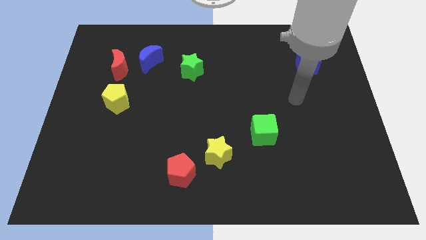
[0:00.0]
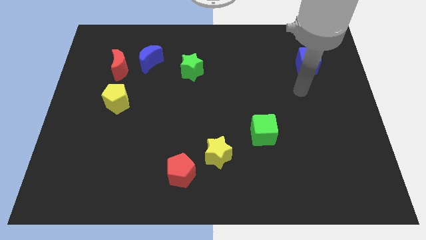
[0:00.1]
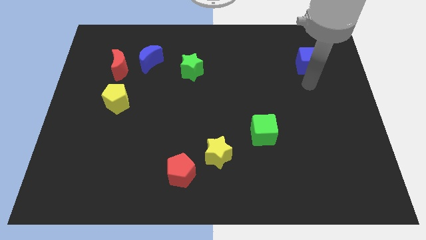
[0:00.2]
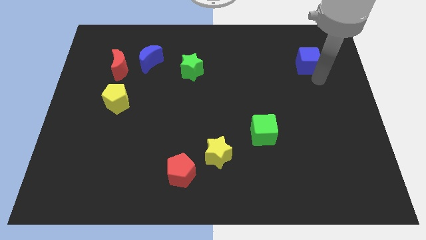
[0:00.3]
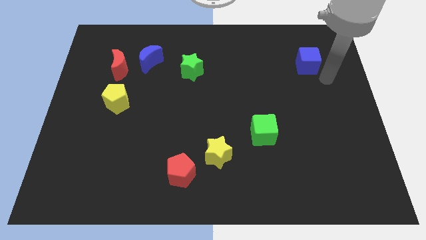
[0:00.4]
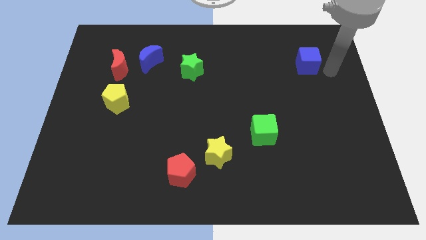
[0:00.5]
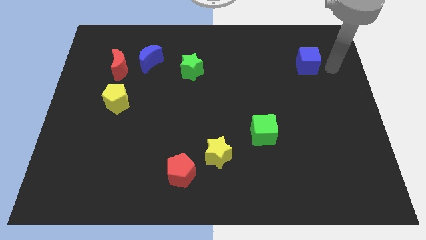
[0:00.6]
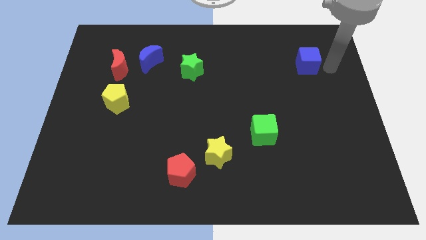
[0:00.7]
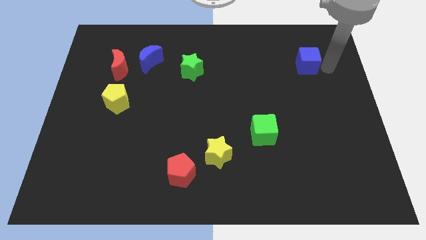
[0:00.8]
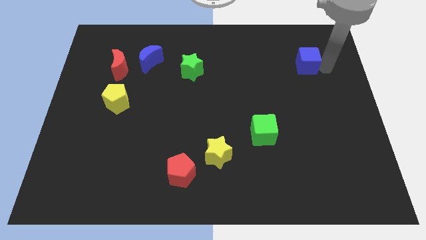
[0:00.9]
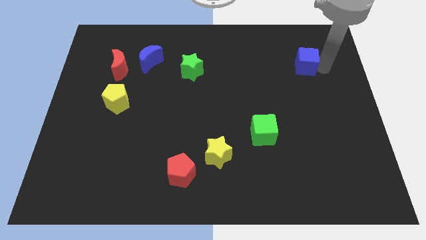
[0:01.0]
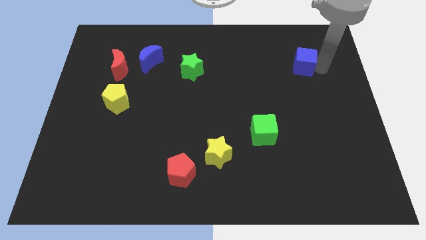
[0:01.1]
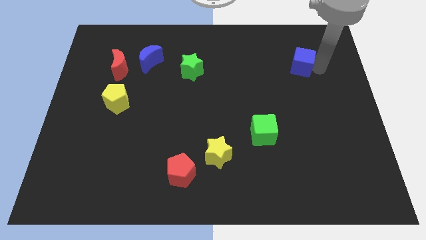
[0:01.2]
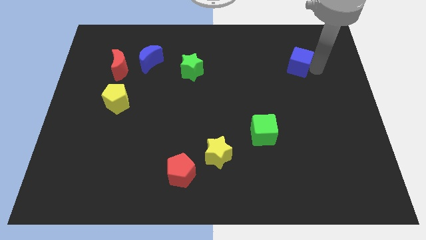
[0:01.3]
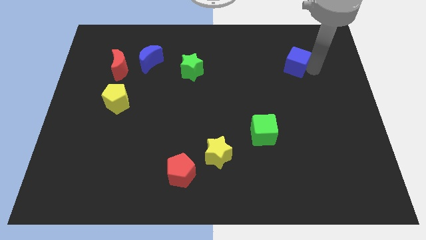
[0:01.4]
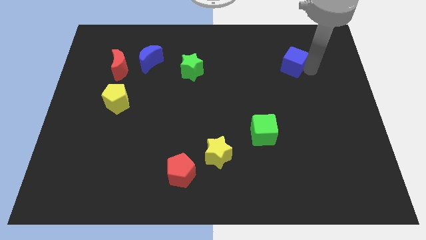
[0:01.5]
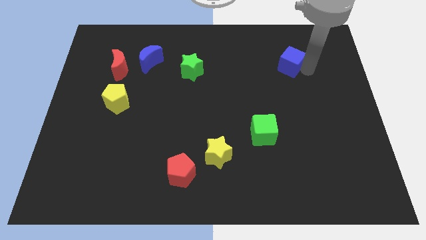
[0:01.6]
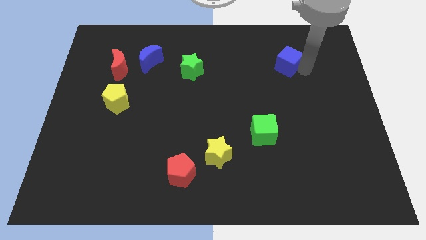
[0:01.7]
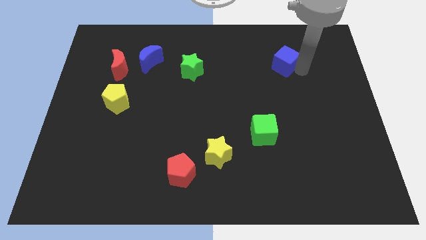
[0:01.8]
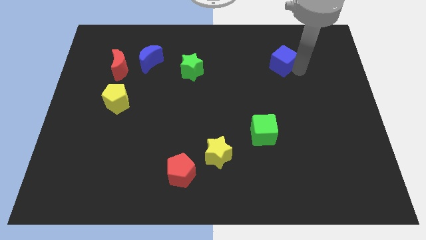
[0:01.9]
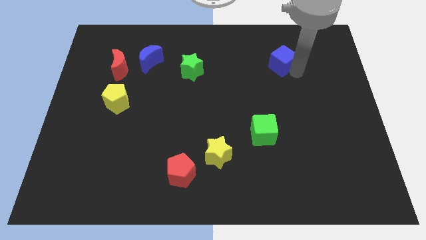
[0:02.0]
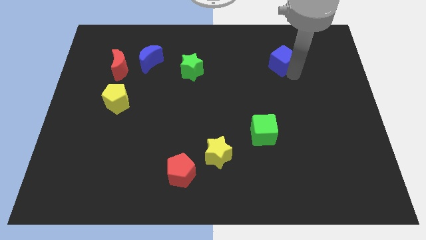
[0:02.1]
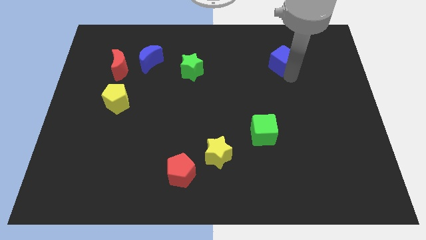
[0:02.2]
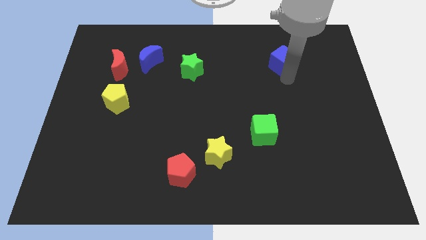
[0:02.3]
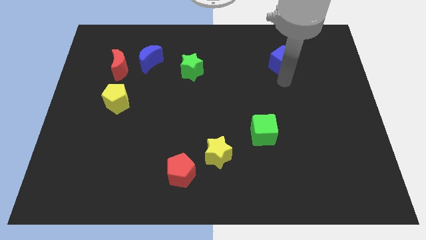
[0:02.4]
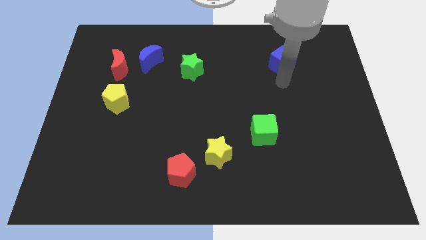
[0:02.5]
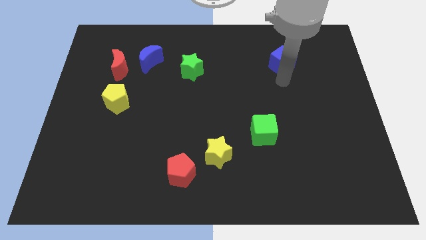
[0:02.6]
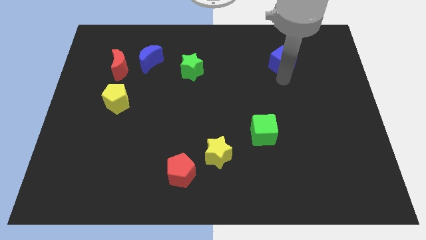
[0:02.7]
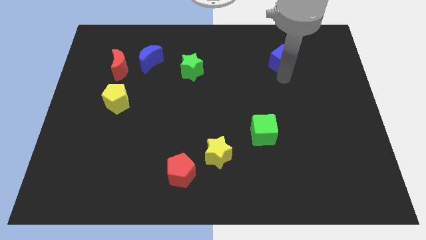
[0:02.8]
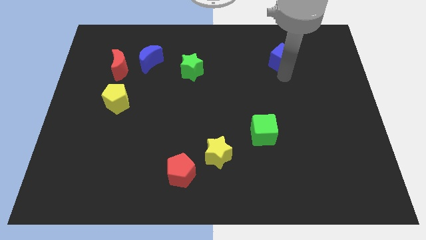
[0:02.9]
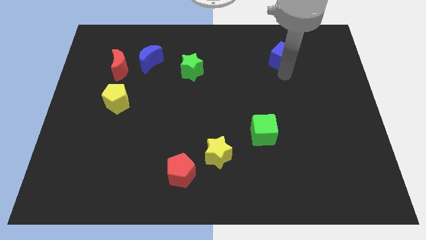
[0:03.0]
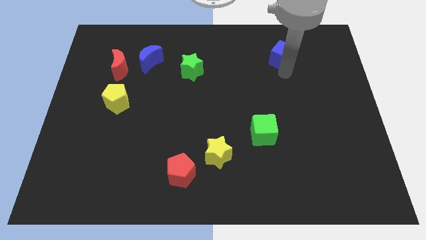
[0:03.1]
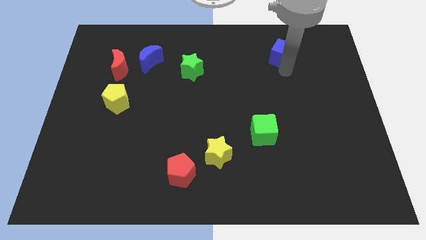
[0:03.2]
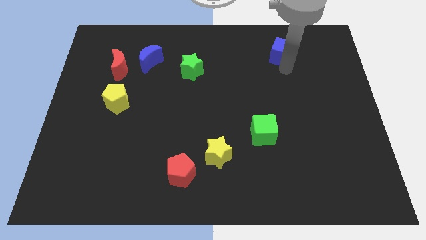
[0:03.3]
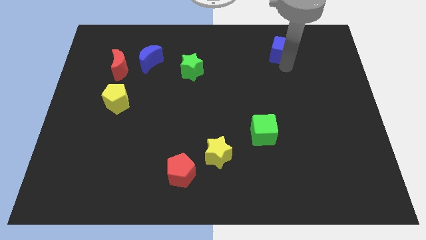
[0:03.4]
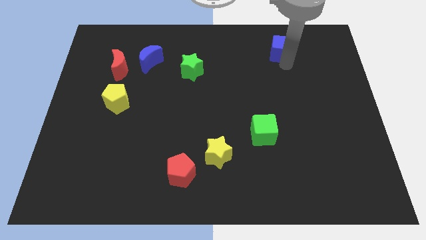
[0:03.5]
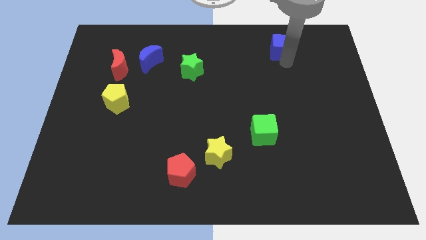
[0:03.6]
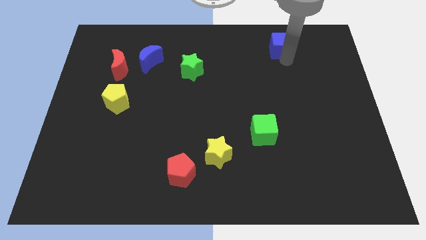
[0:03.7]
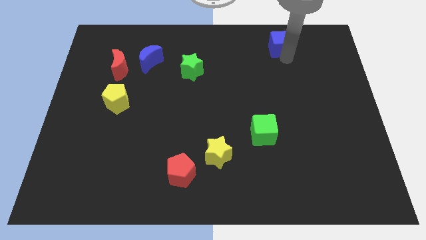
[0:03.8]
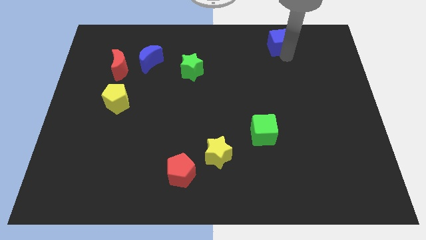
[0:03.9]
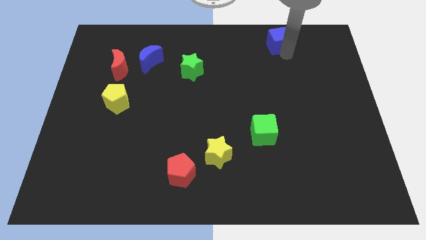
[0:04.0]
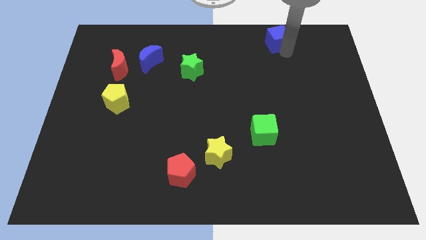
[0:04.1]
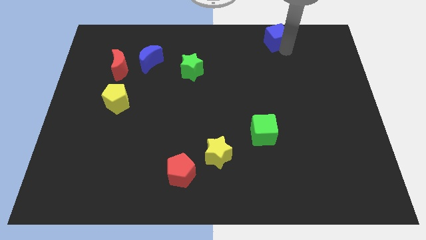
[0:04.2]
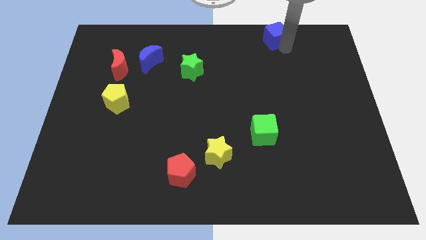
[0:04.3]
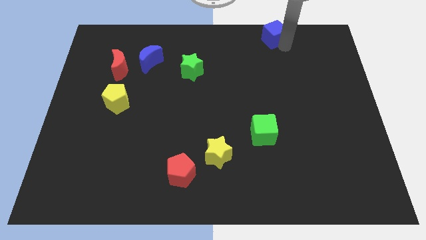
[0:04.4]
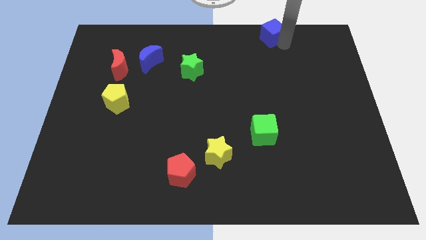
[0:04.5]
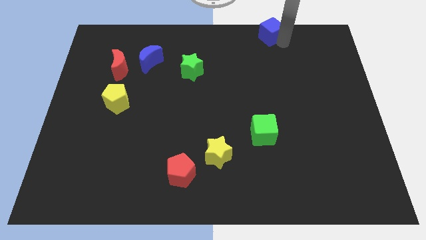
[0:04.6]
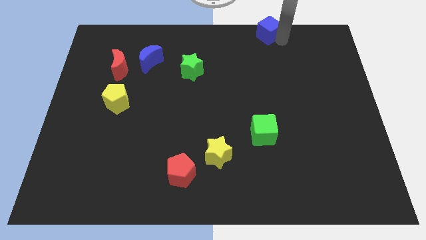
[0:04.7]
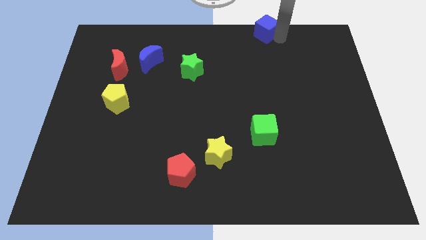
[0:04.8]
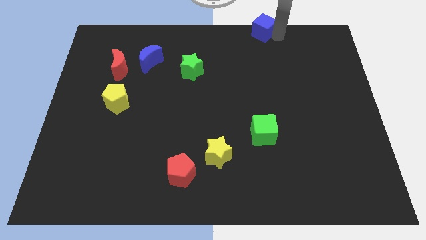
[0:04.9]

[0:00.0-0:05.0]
put the blue cube to the towards your base

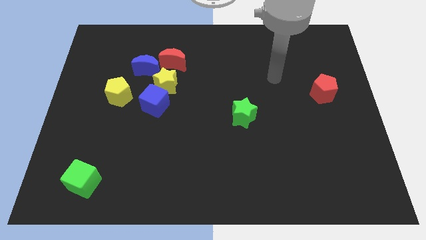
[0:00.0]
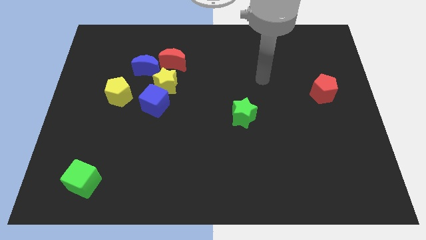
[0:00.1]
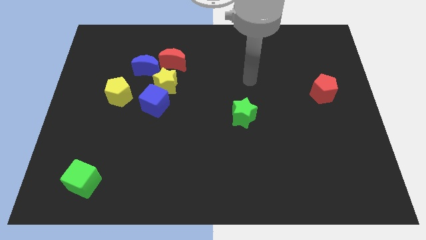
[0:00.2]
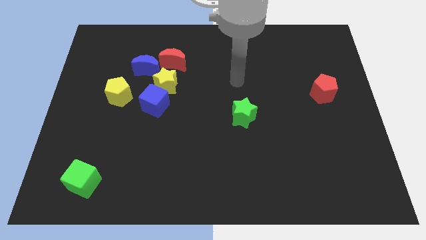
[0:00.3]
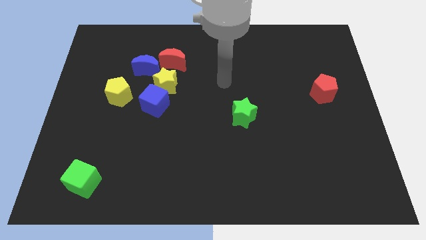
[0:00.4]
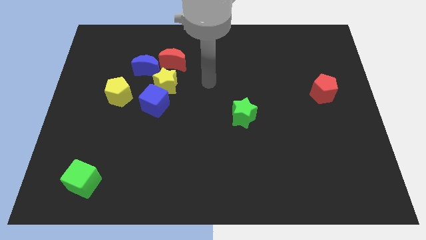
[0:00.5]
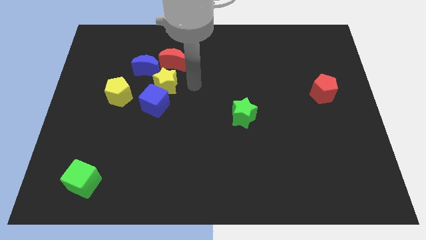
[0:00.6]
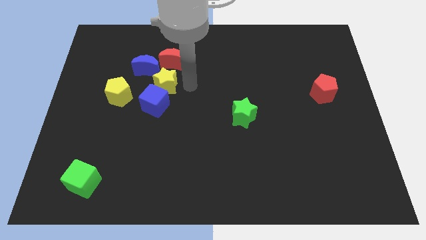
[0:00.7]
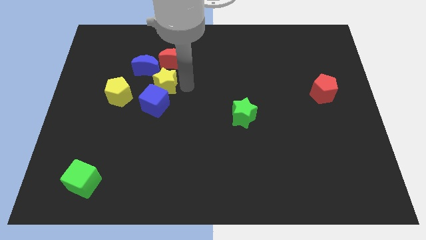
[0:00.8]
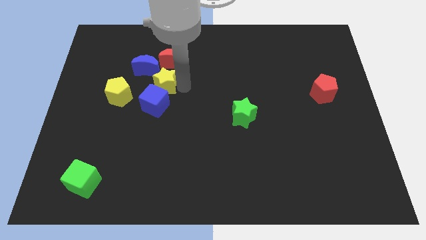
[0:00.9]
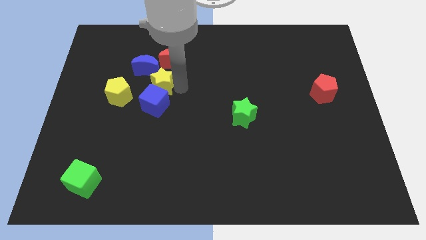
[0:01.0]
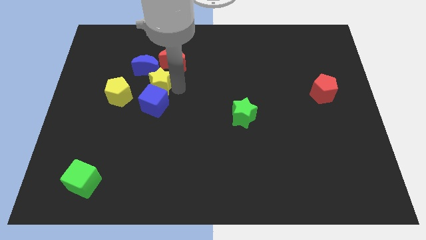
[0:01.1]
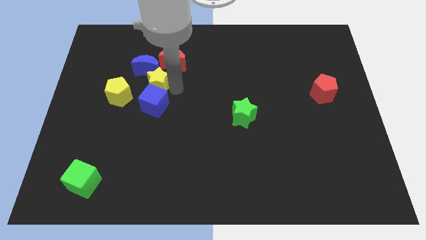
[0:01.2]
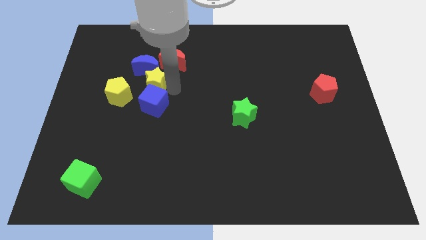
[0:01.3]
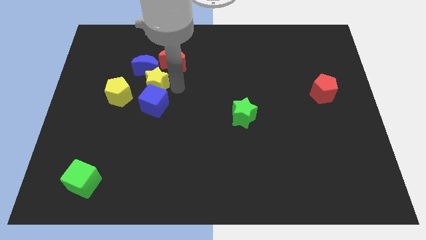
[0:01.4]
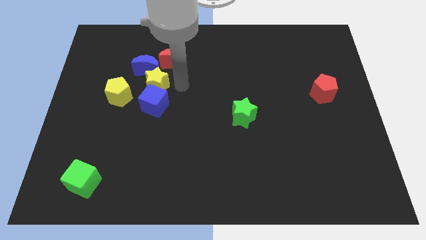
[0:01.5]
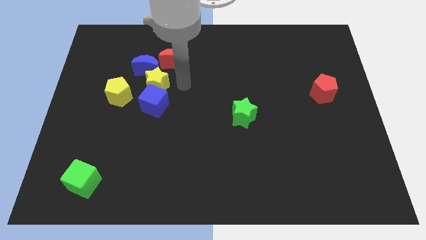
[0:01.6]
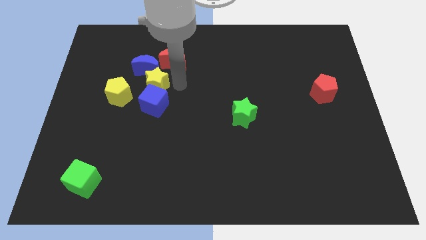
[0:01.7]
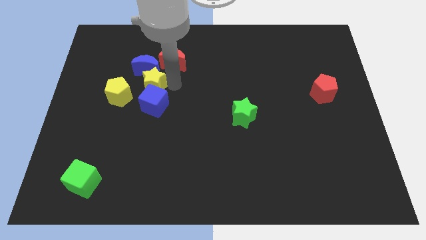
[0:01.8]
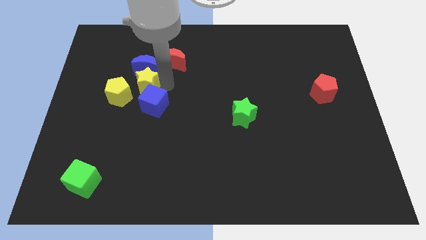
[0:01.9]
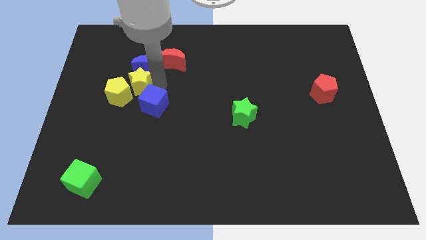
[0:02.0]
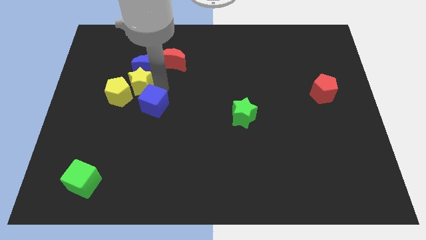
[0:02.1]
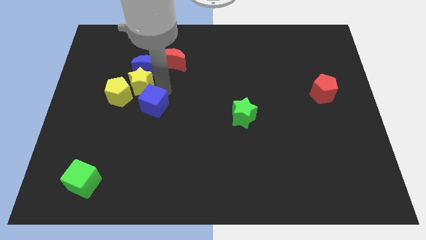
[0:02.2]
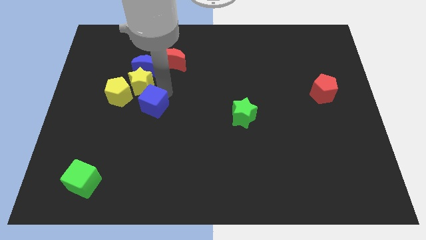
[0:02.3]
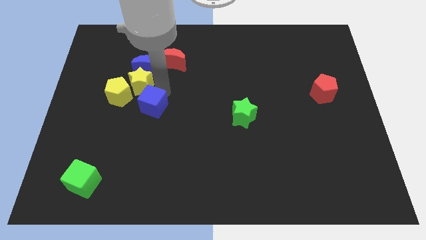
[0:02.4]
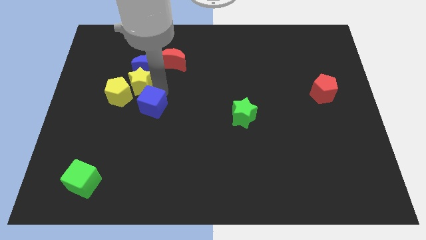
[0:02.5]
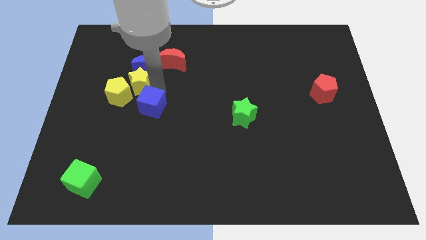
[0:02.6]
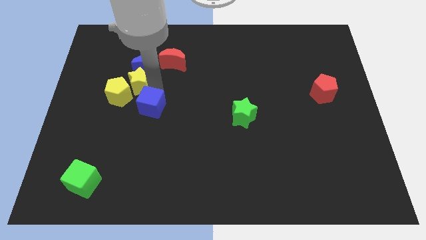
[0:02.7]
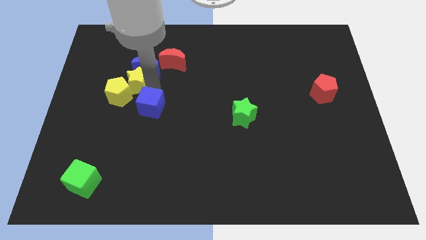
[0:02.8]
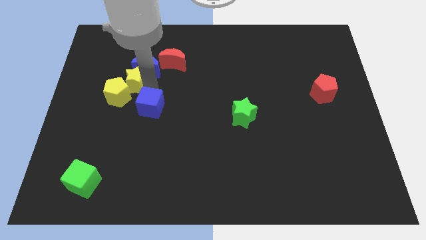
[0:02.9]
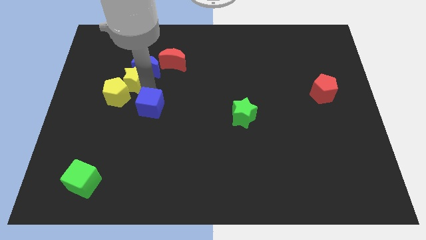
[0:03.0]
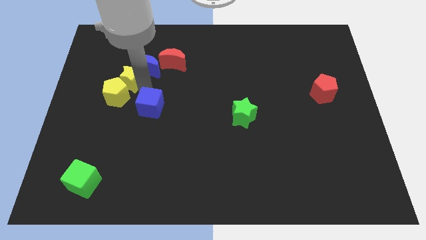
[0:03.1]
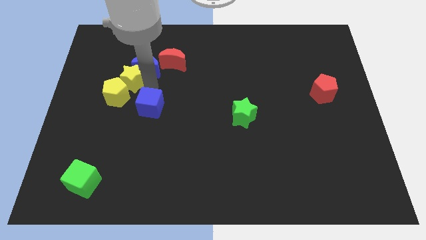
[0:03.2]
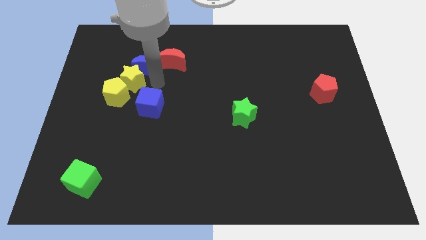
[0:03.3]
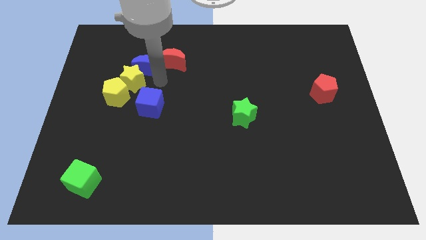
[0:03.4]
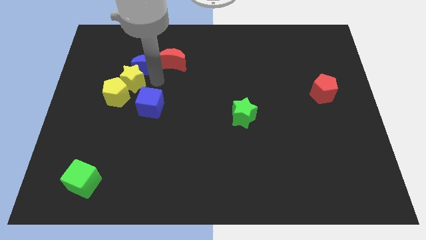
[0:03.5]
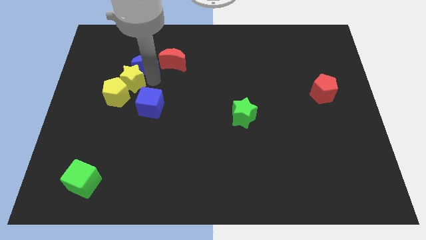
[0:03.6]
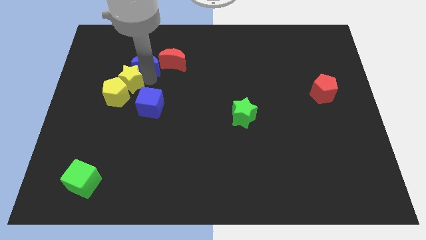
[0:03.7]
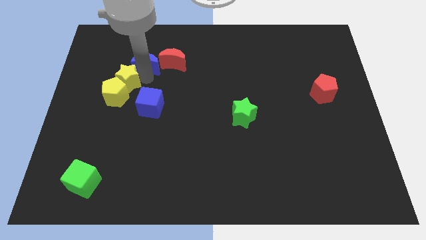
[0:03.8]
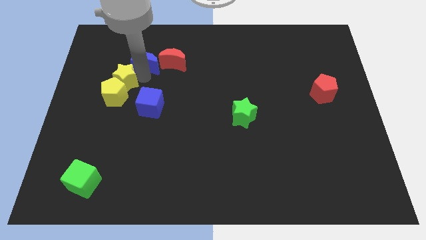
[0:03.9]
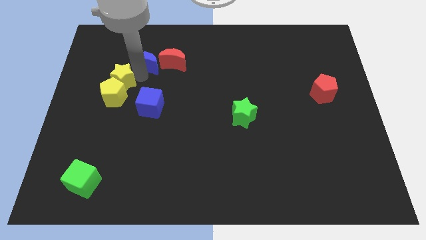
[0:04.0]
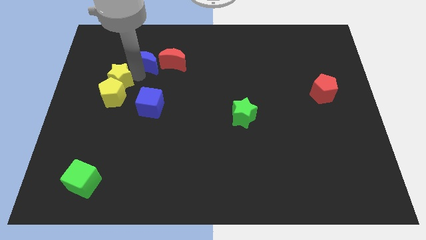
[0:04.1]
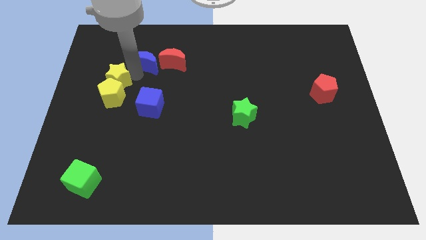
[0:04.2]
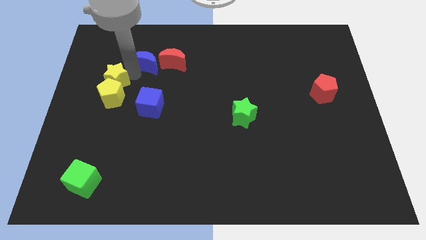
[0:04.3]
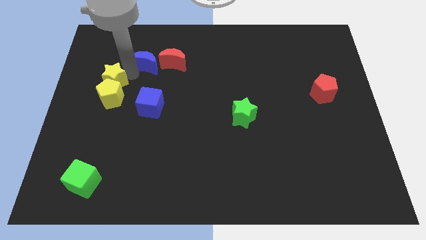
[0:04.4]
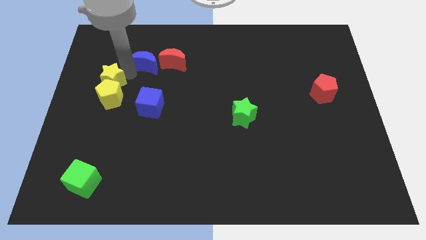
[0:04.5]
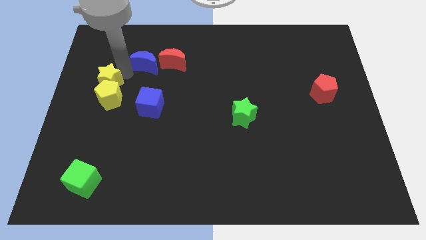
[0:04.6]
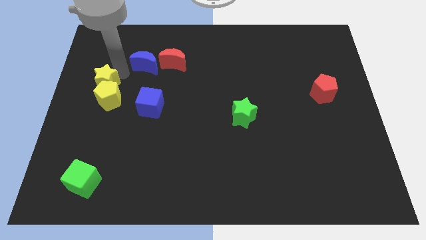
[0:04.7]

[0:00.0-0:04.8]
push the yellow star to the center left
